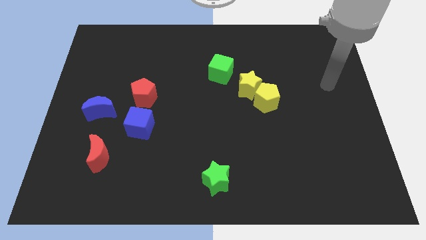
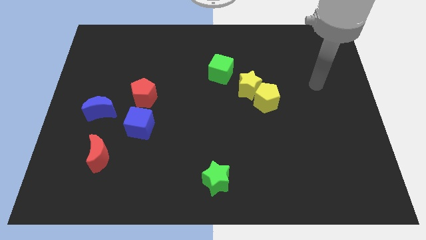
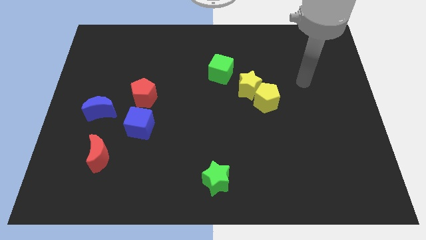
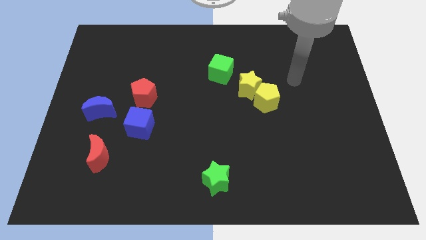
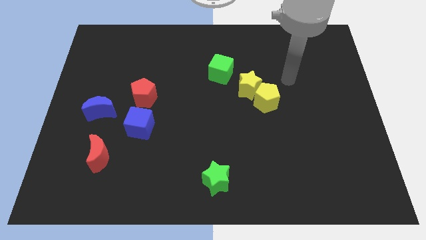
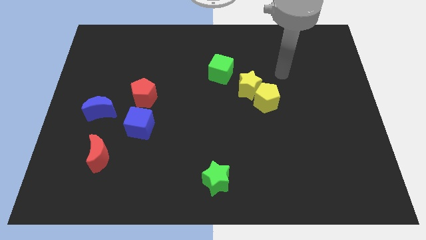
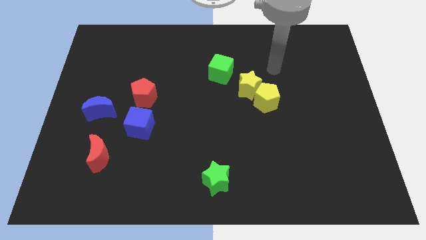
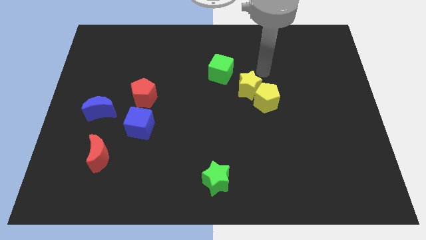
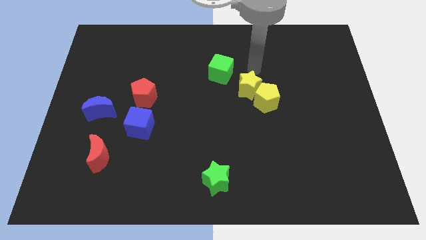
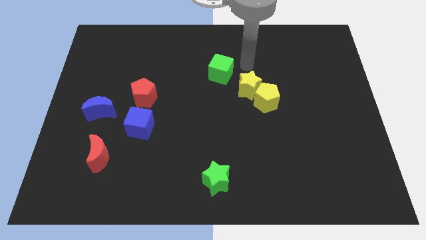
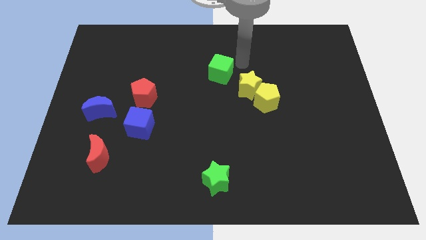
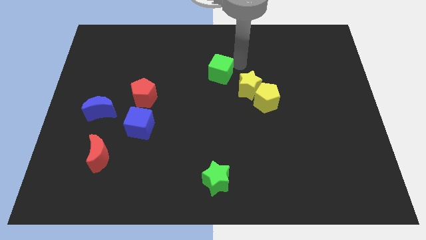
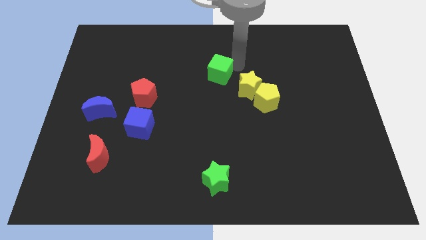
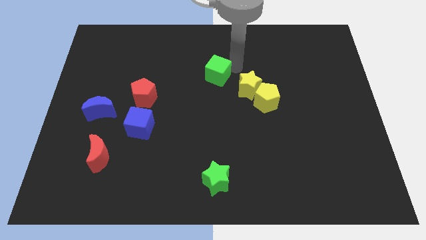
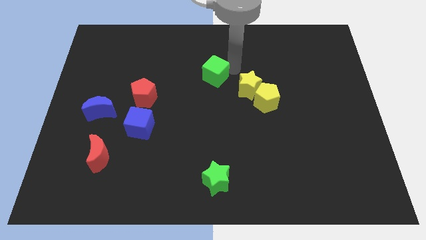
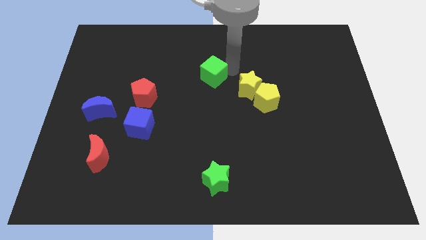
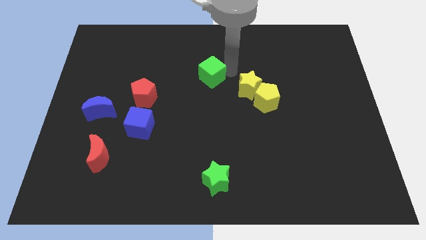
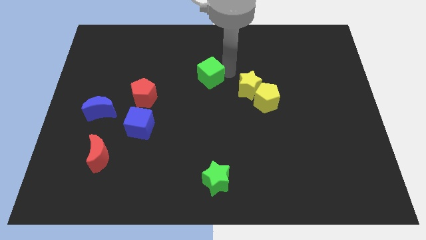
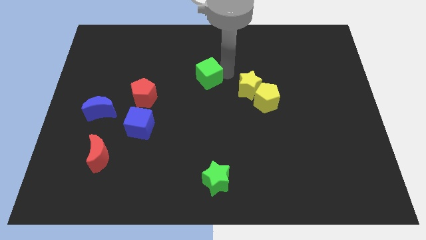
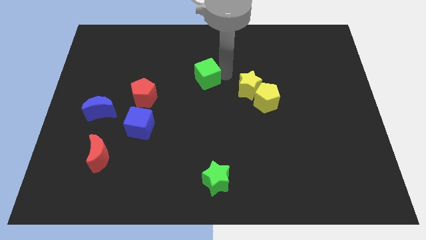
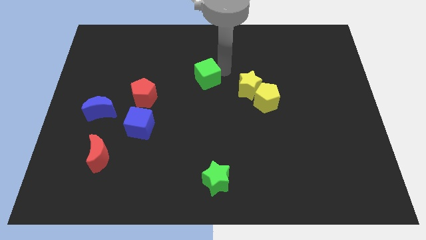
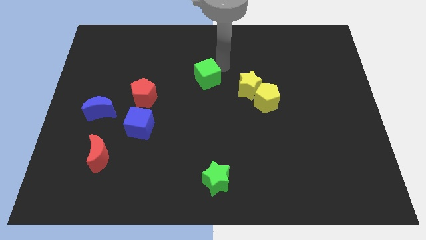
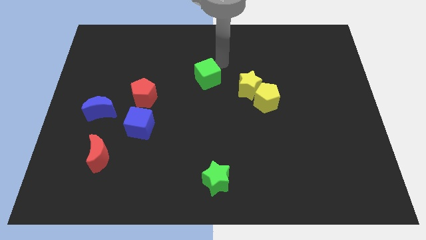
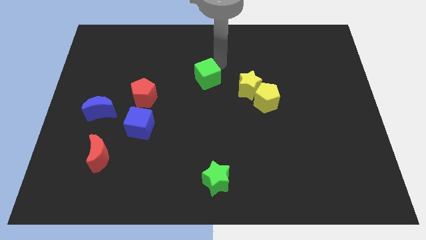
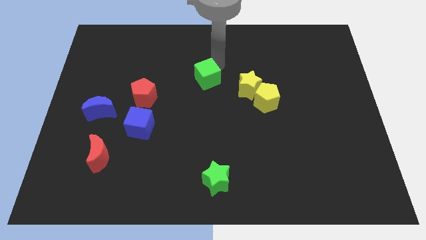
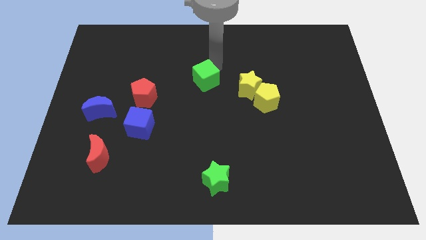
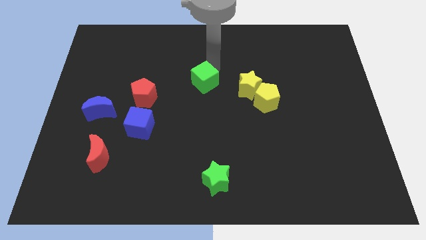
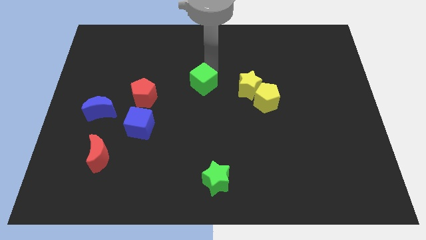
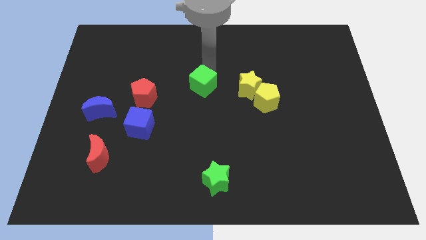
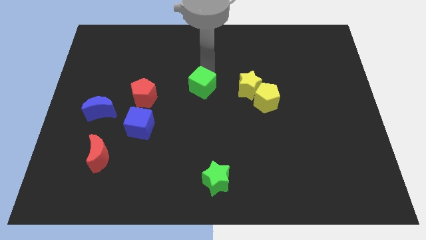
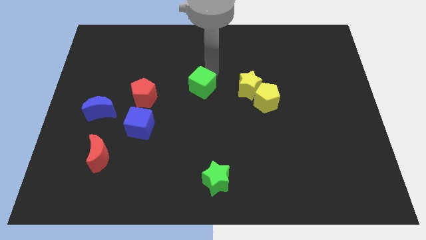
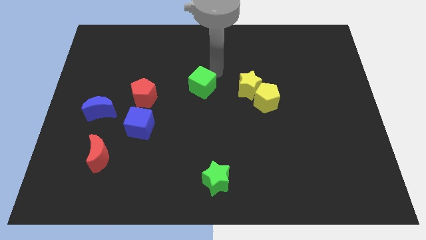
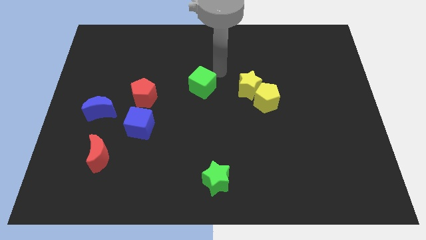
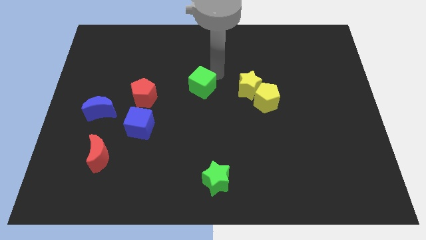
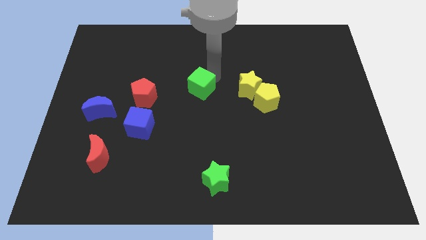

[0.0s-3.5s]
slide the green cube a bit downwards and left diagonally

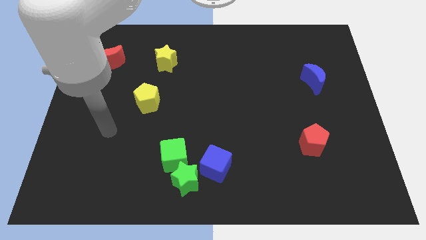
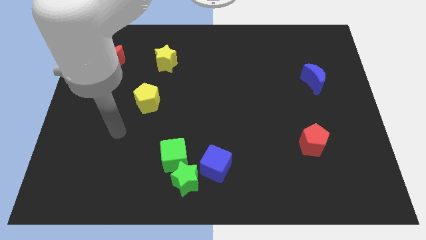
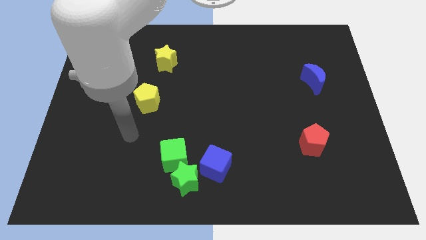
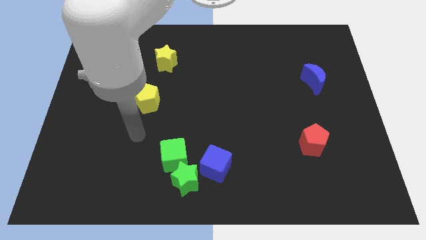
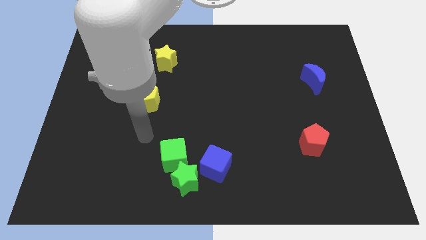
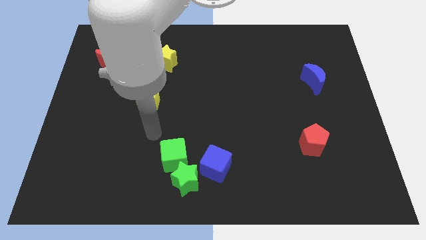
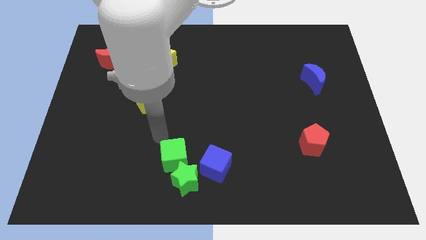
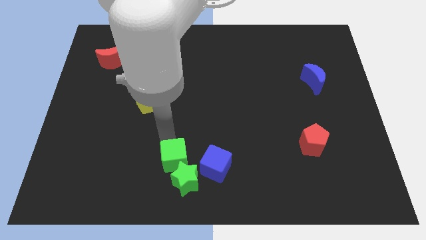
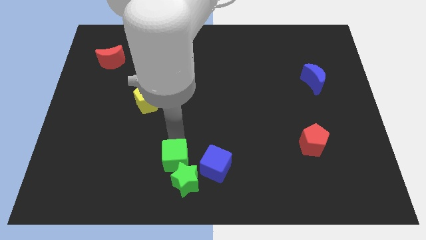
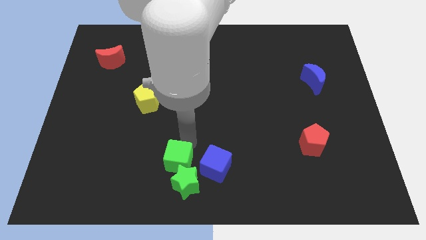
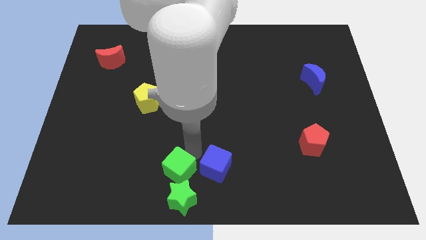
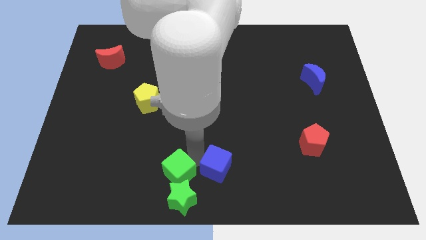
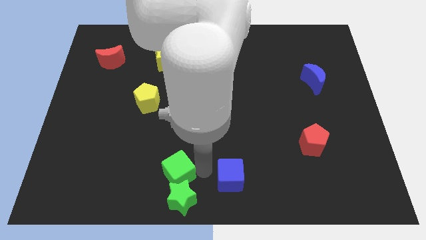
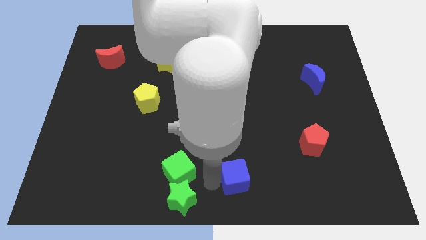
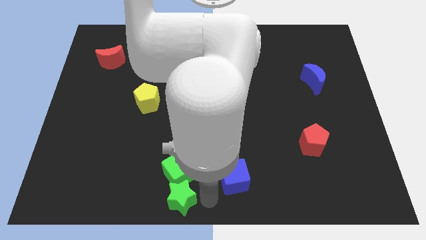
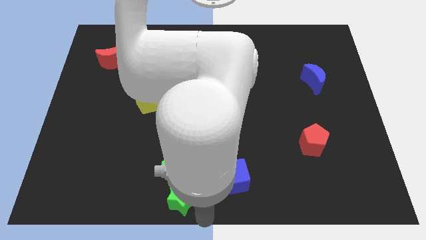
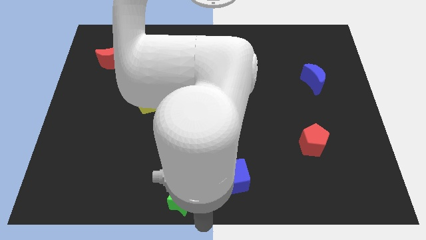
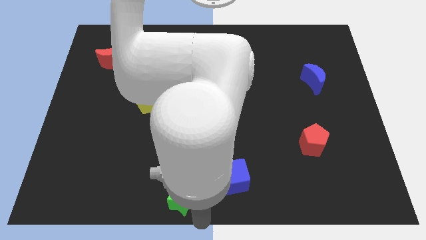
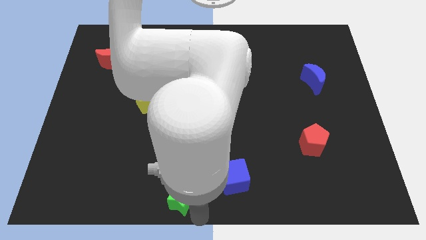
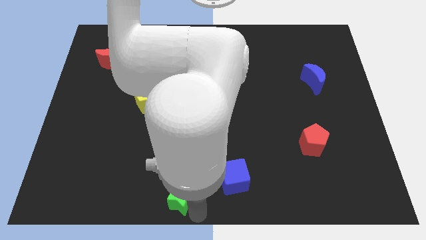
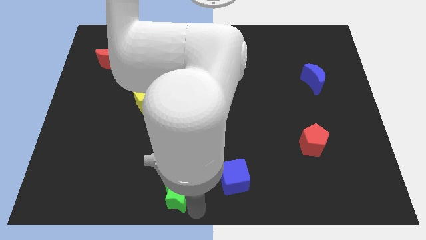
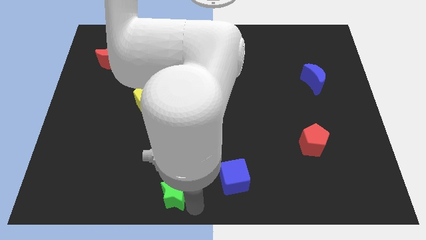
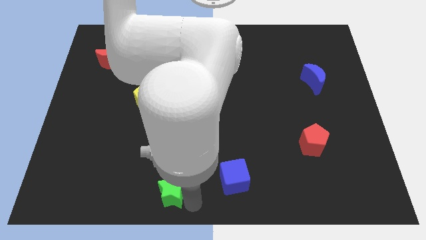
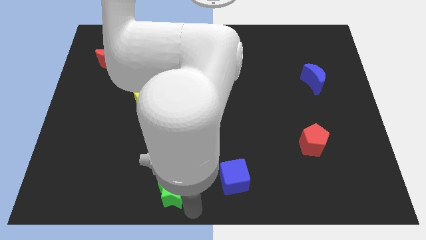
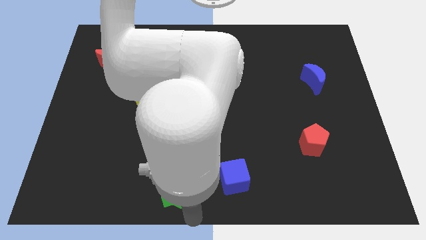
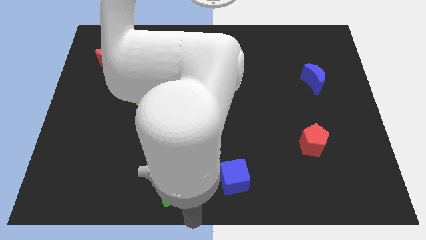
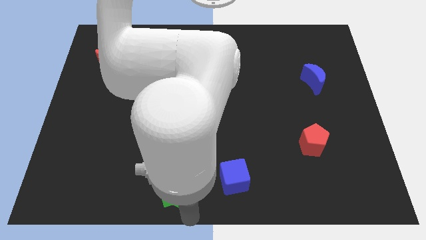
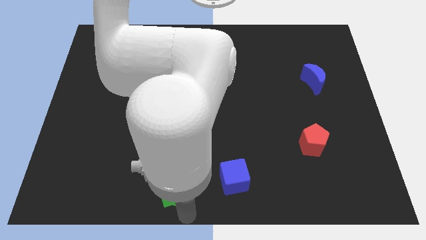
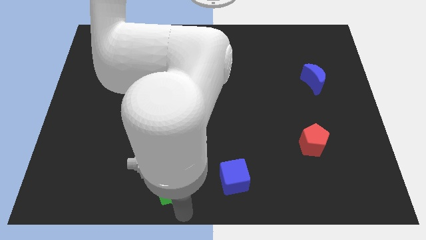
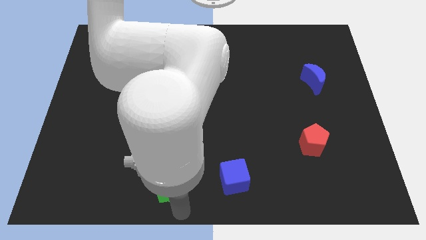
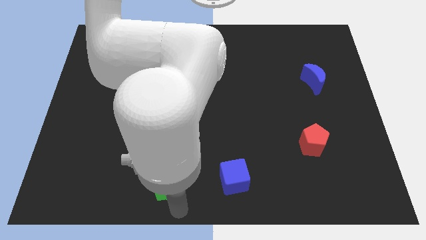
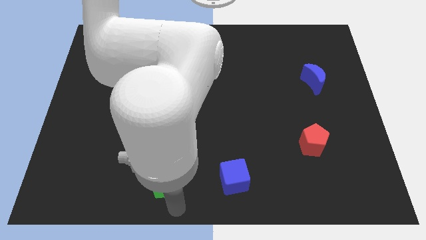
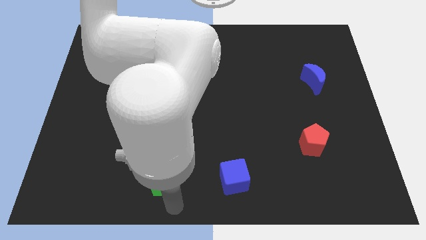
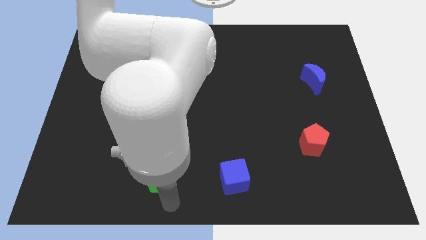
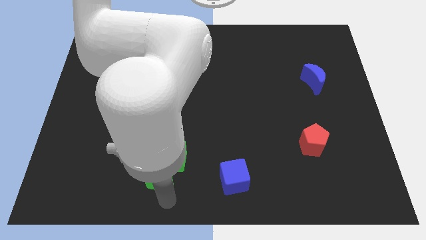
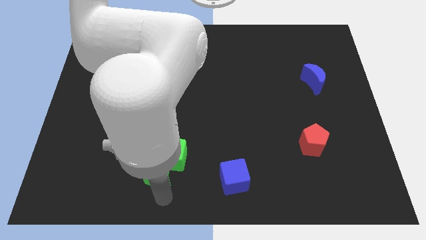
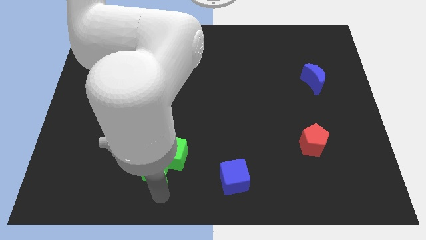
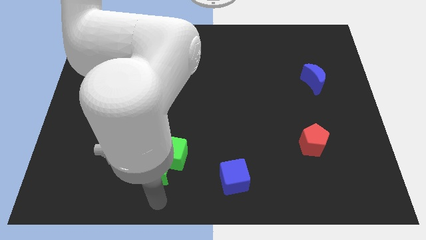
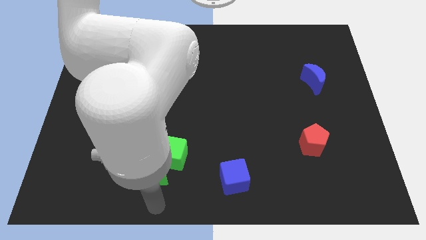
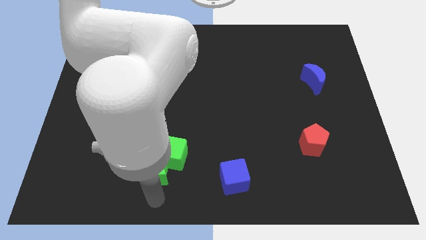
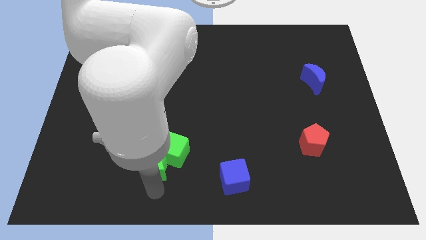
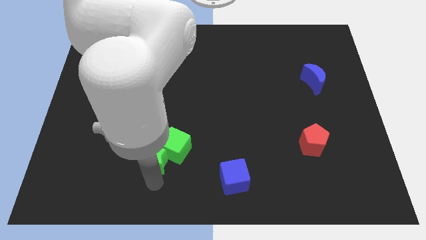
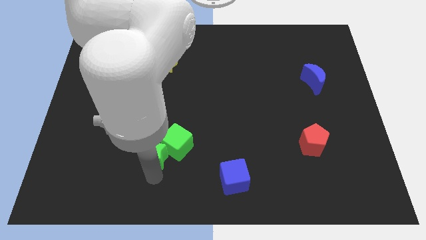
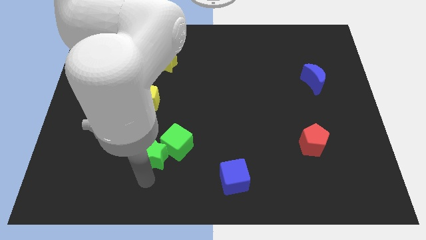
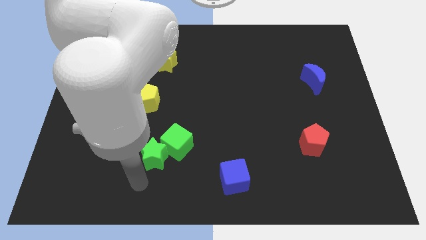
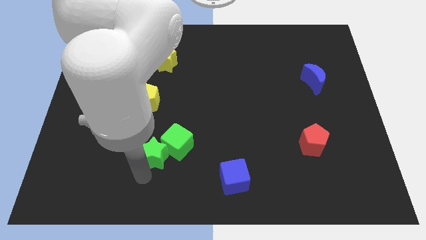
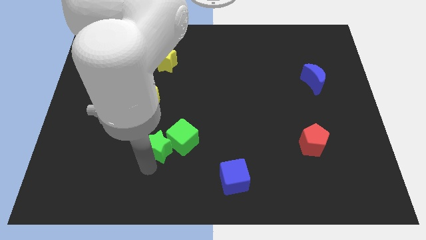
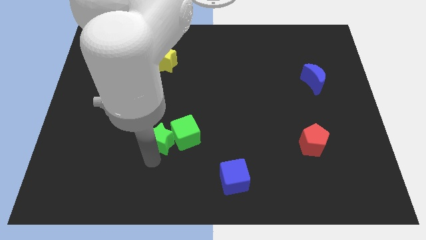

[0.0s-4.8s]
push the green star up a bit
